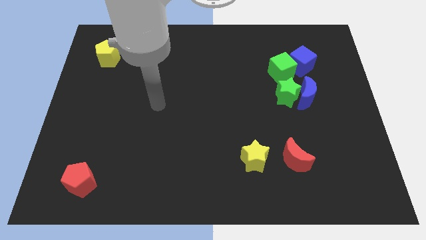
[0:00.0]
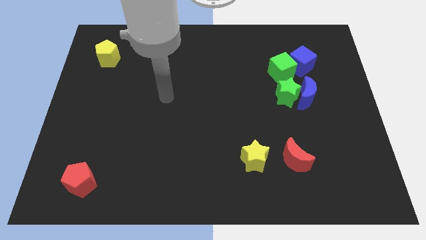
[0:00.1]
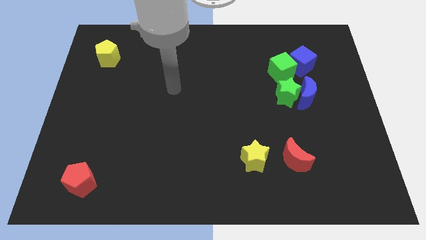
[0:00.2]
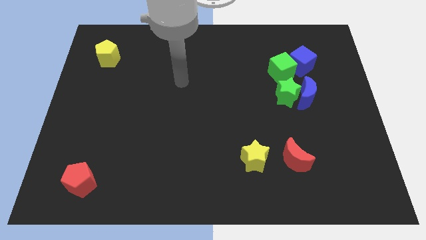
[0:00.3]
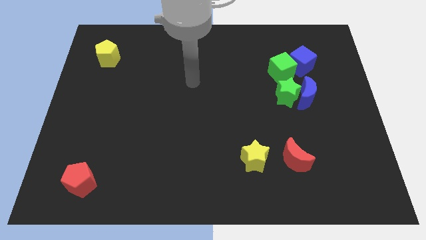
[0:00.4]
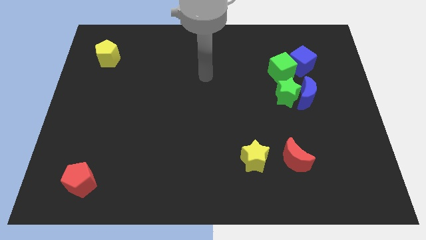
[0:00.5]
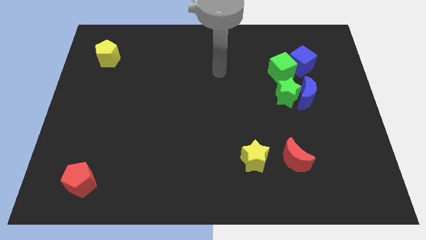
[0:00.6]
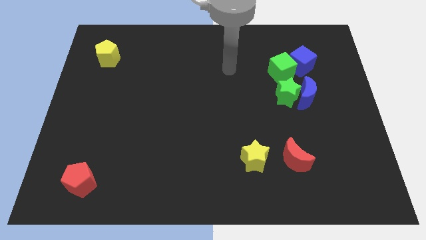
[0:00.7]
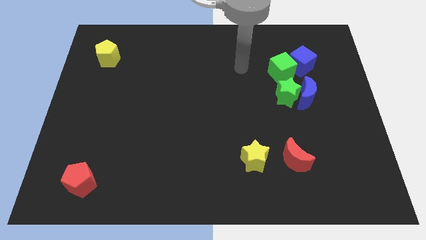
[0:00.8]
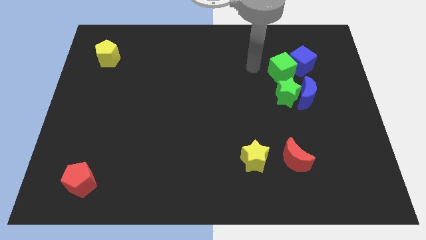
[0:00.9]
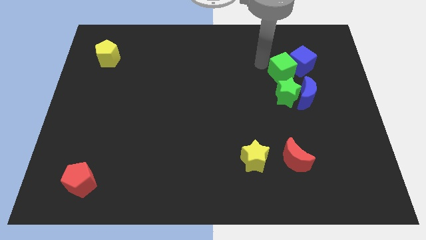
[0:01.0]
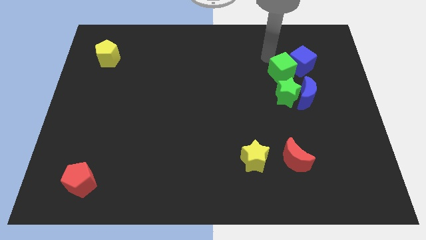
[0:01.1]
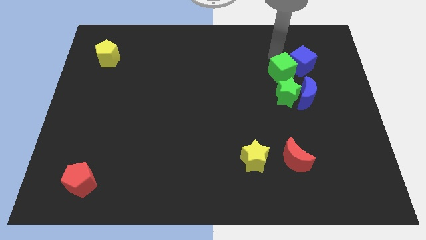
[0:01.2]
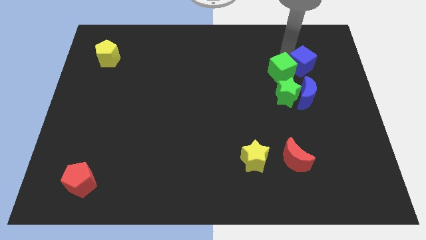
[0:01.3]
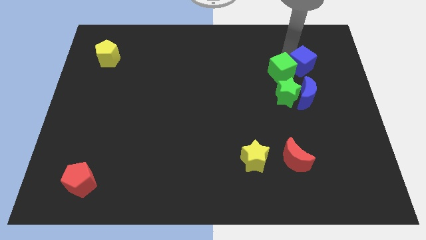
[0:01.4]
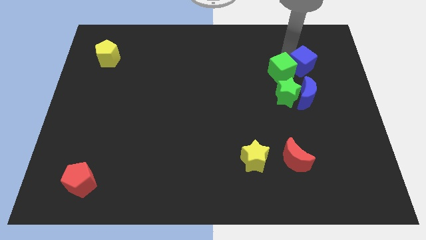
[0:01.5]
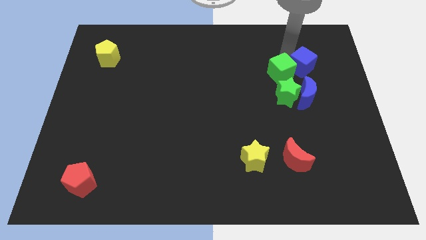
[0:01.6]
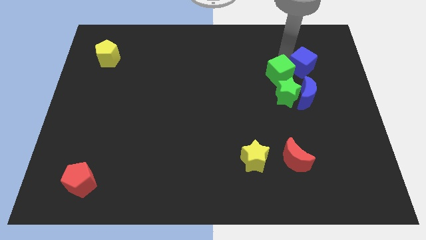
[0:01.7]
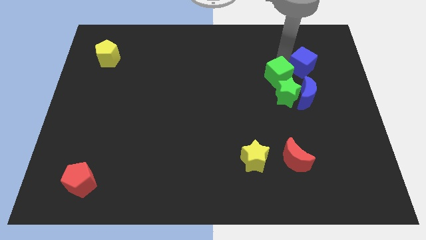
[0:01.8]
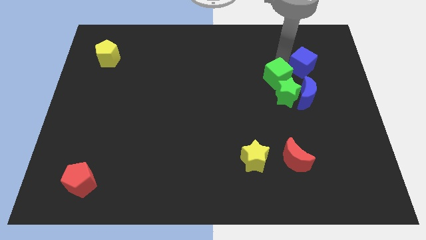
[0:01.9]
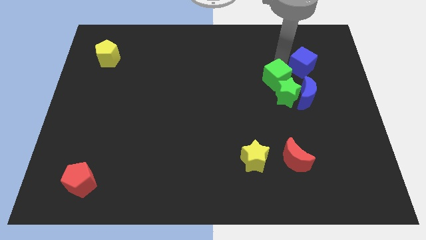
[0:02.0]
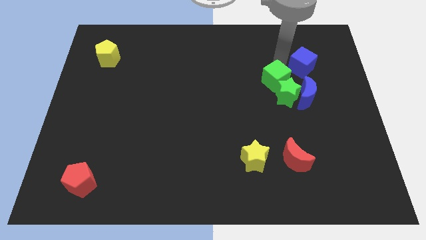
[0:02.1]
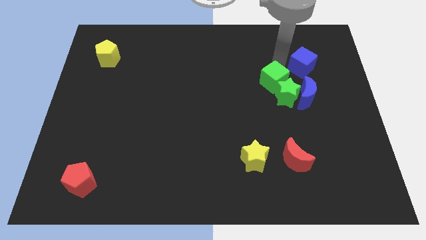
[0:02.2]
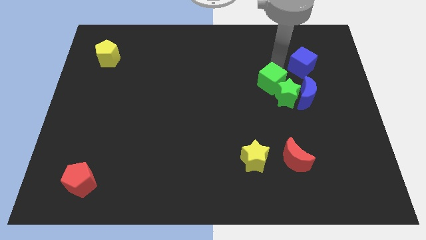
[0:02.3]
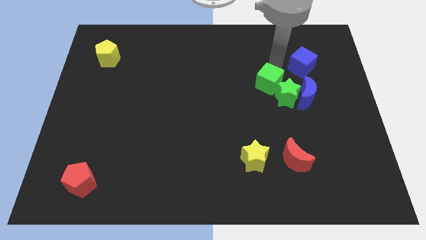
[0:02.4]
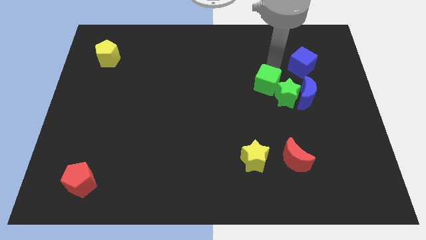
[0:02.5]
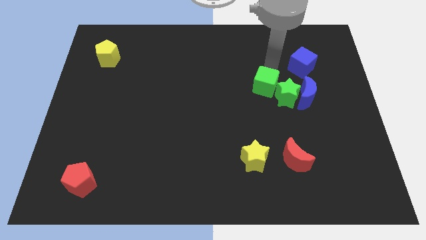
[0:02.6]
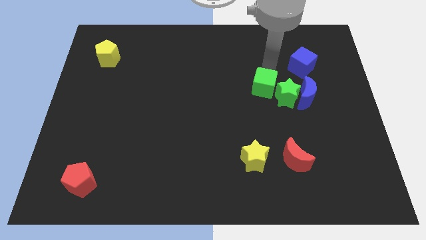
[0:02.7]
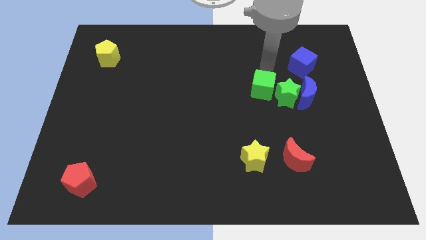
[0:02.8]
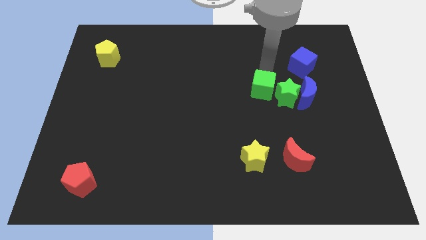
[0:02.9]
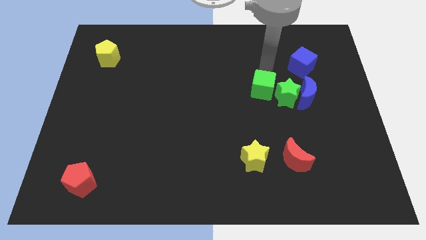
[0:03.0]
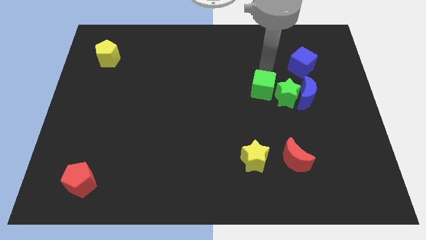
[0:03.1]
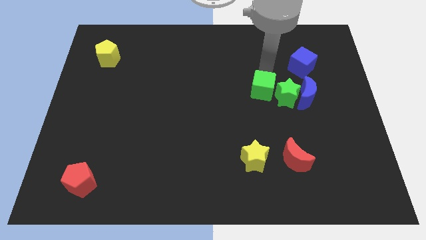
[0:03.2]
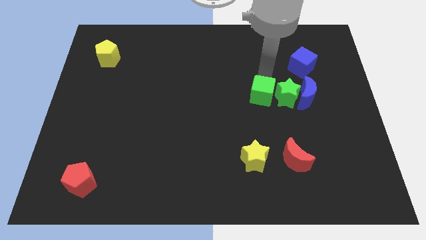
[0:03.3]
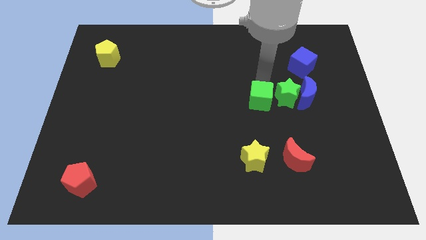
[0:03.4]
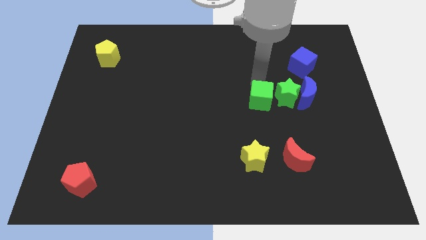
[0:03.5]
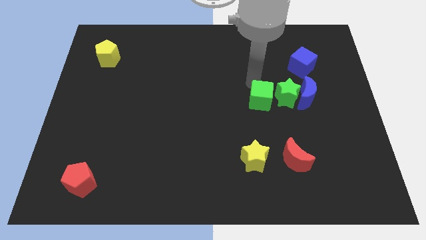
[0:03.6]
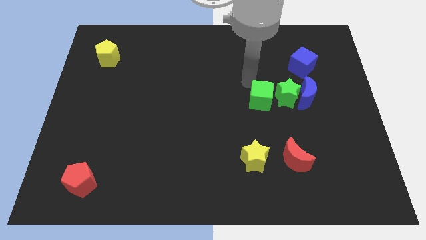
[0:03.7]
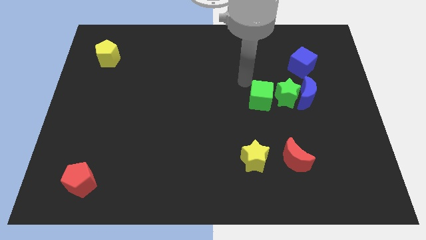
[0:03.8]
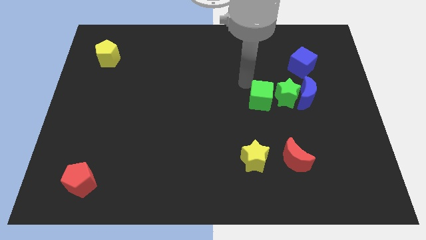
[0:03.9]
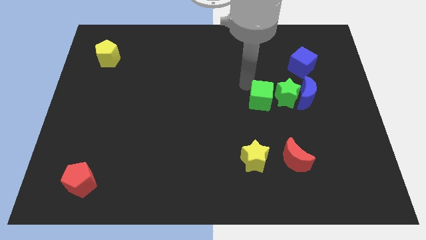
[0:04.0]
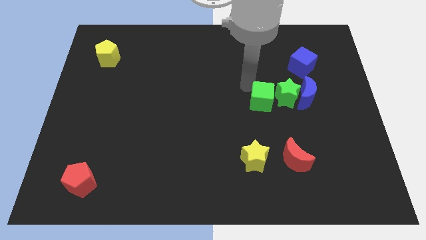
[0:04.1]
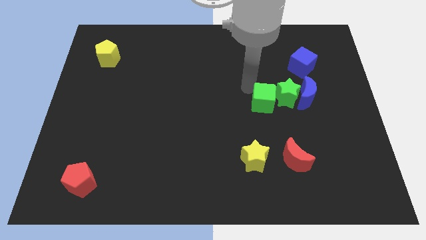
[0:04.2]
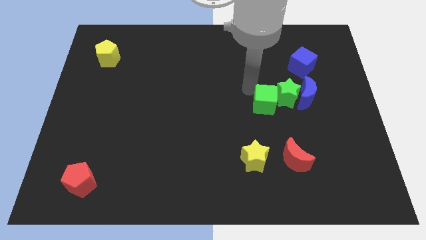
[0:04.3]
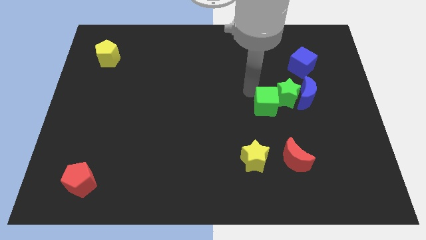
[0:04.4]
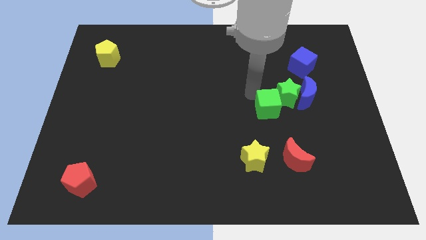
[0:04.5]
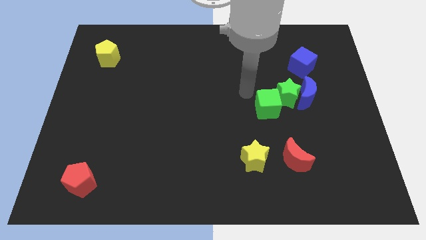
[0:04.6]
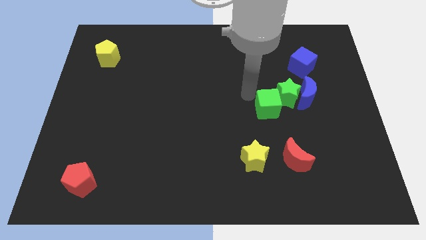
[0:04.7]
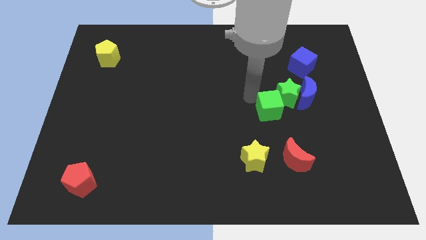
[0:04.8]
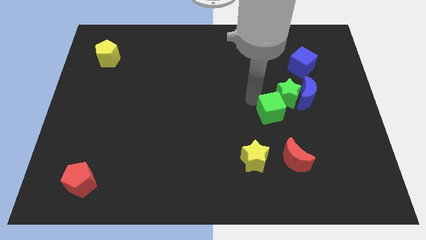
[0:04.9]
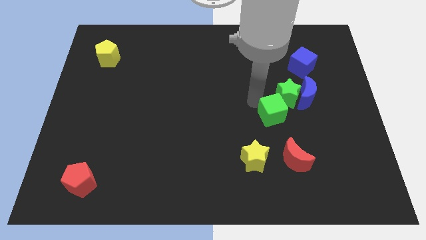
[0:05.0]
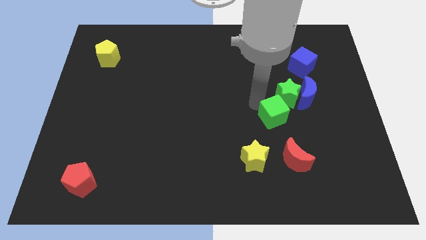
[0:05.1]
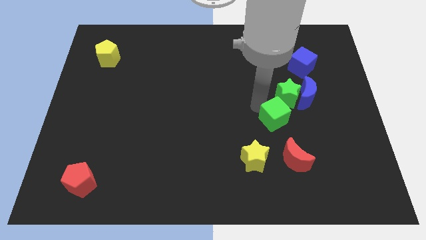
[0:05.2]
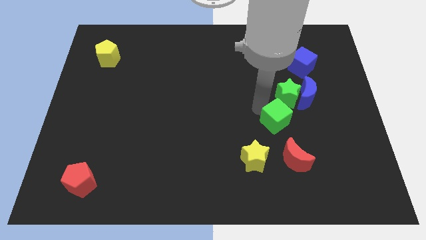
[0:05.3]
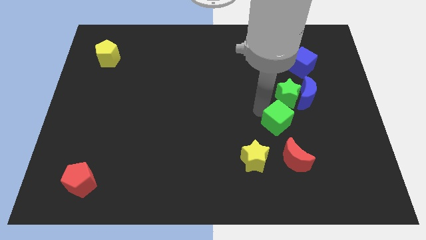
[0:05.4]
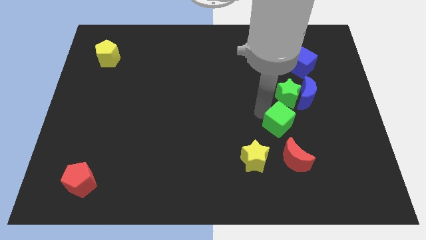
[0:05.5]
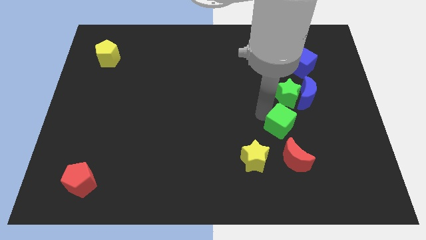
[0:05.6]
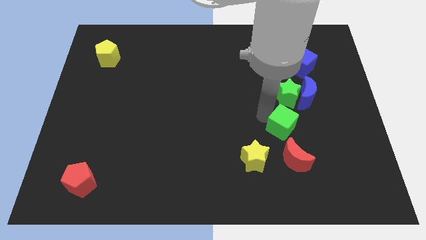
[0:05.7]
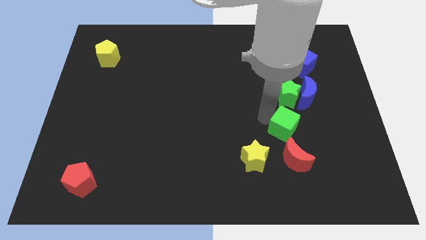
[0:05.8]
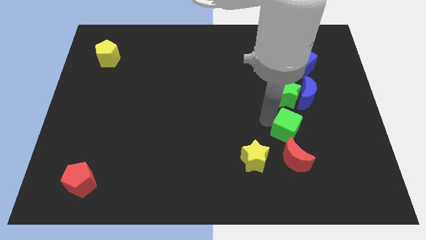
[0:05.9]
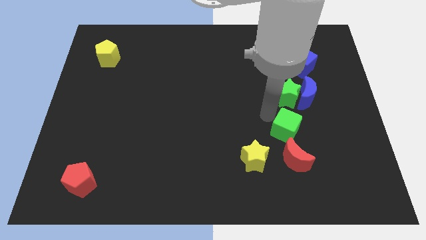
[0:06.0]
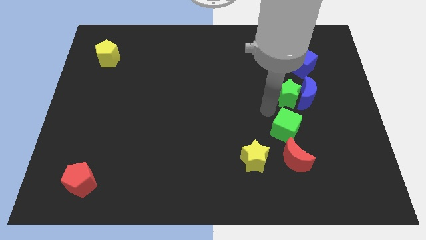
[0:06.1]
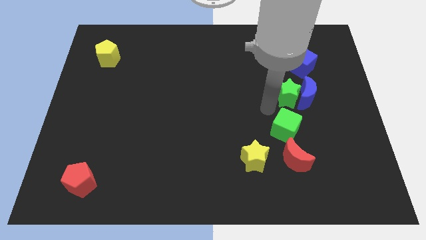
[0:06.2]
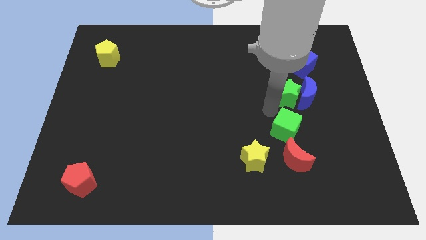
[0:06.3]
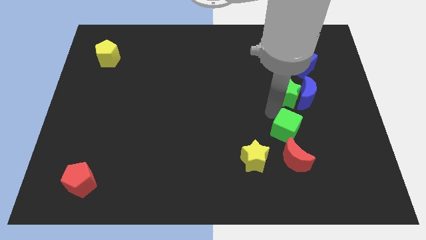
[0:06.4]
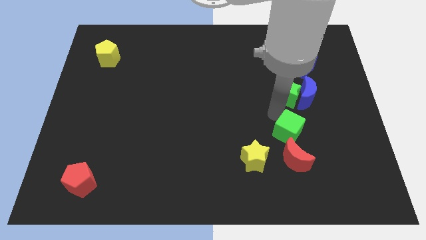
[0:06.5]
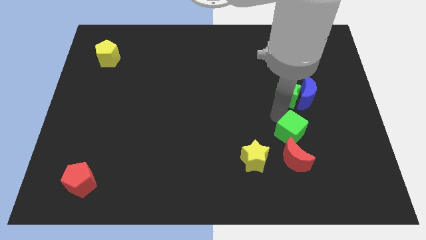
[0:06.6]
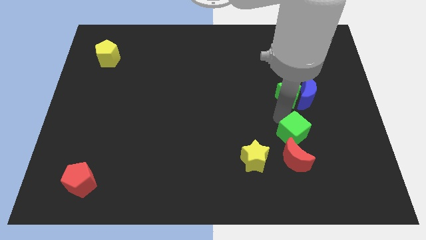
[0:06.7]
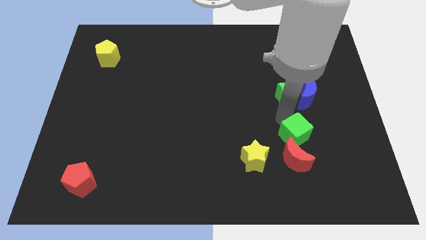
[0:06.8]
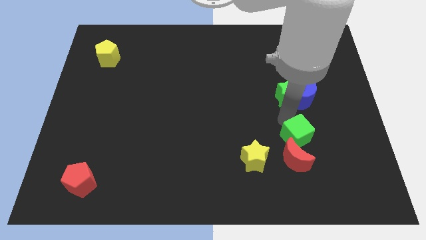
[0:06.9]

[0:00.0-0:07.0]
move the green cube to the red moon
